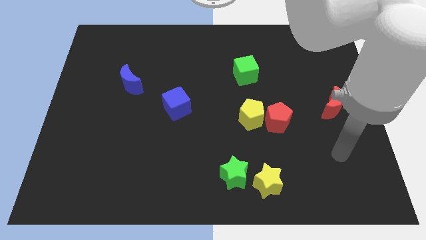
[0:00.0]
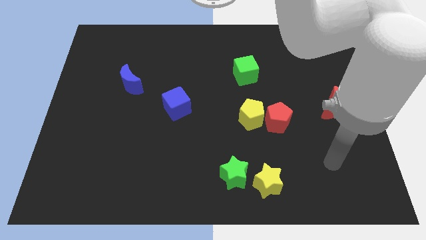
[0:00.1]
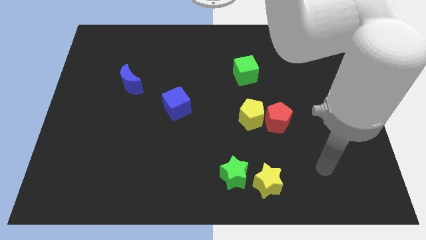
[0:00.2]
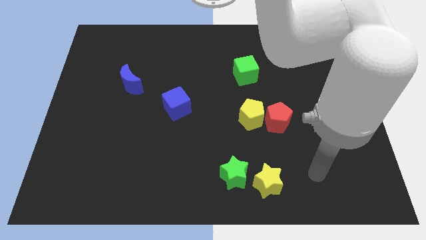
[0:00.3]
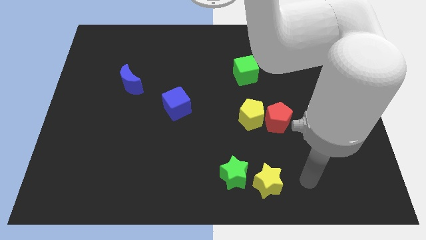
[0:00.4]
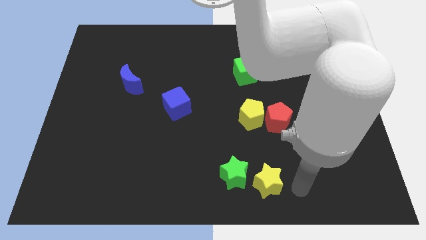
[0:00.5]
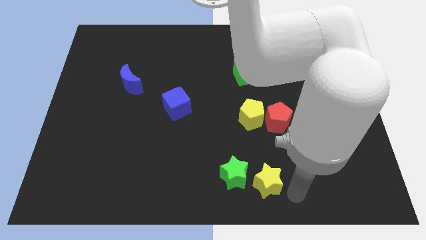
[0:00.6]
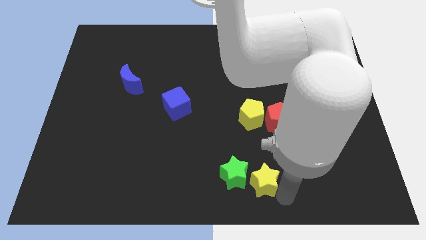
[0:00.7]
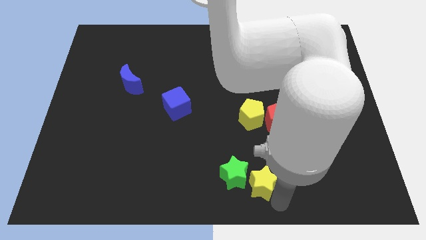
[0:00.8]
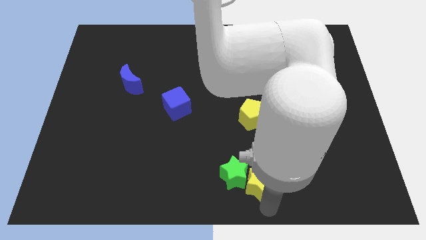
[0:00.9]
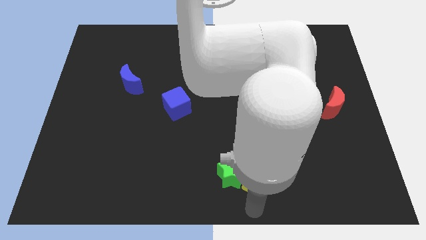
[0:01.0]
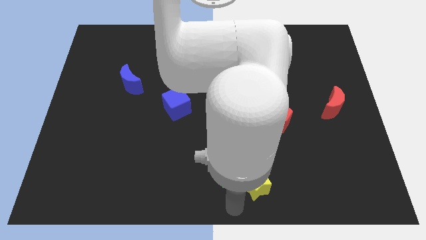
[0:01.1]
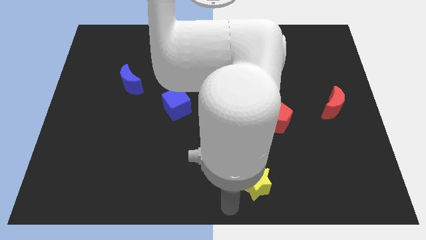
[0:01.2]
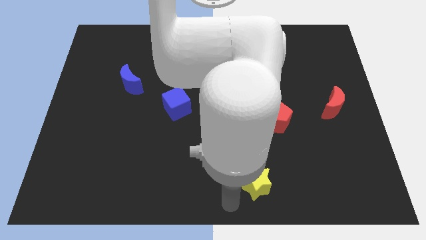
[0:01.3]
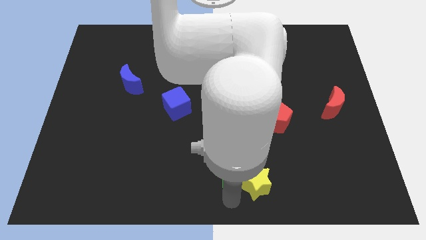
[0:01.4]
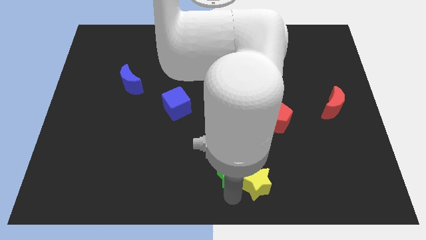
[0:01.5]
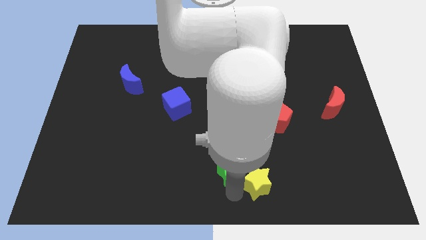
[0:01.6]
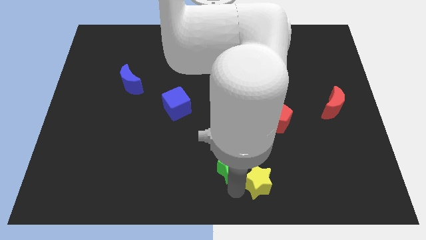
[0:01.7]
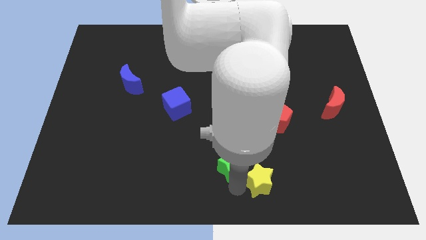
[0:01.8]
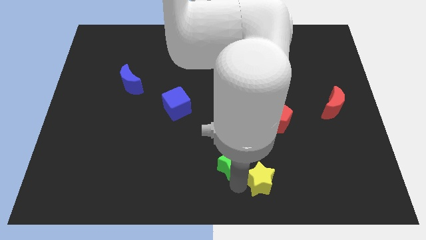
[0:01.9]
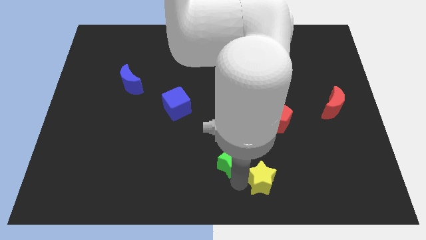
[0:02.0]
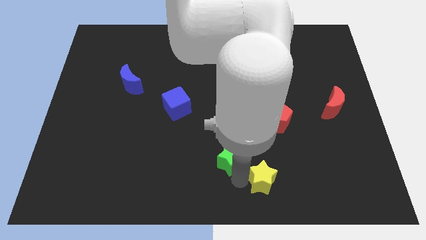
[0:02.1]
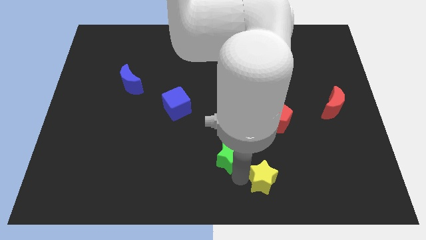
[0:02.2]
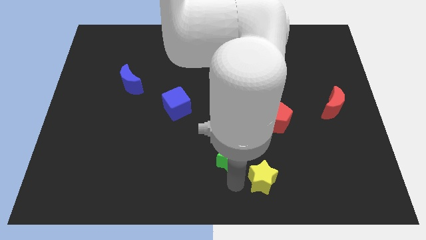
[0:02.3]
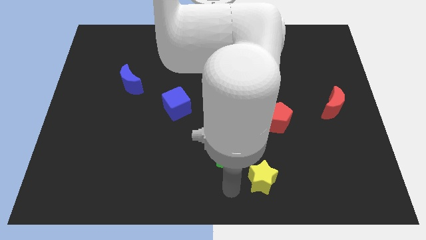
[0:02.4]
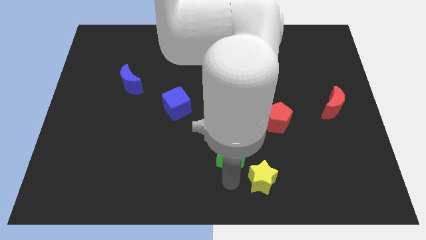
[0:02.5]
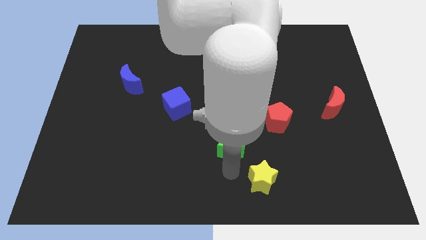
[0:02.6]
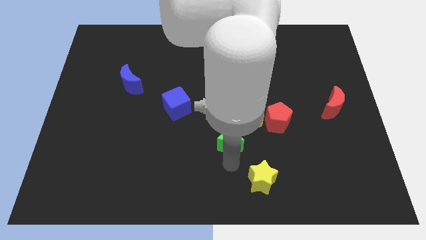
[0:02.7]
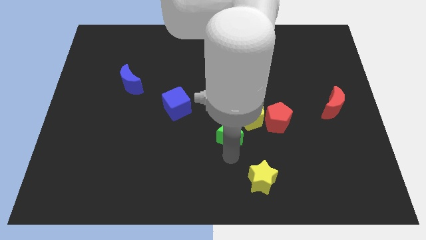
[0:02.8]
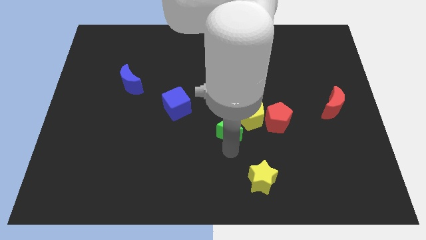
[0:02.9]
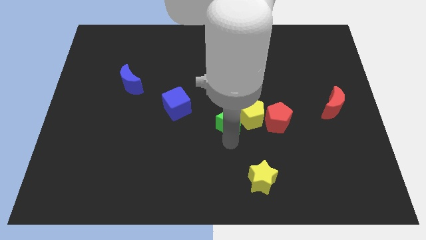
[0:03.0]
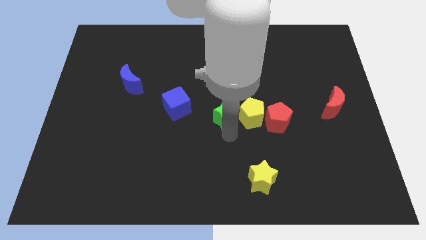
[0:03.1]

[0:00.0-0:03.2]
move the green star to the top left of the yellow pentagon

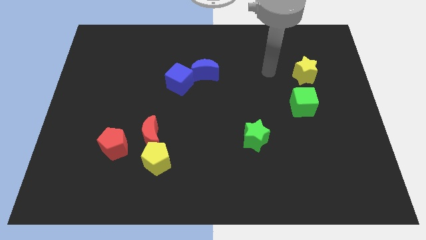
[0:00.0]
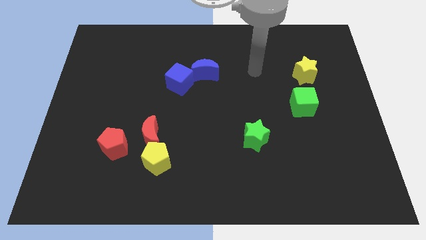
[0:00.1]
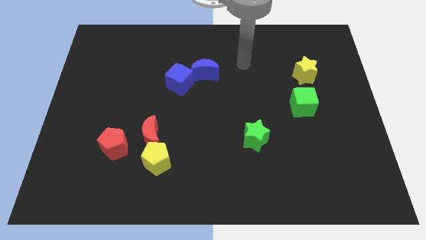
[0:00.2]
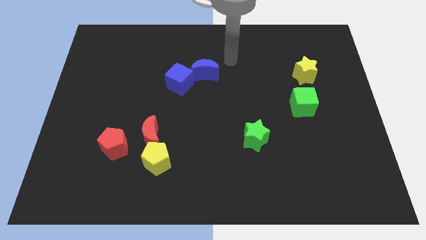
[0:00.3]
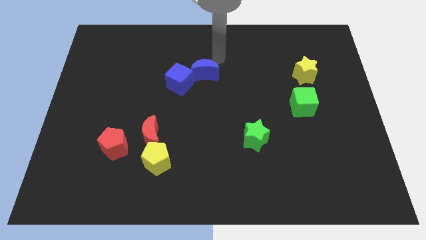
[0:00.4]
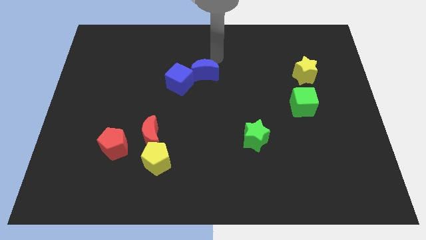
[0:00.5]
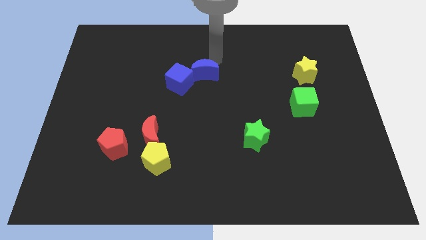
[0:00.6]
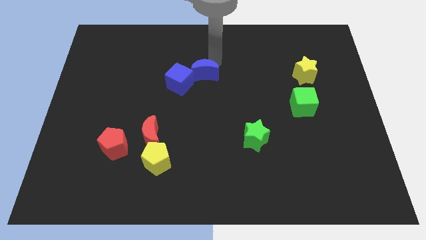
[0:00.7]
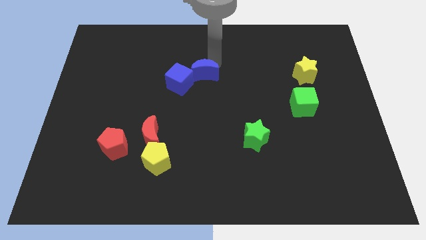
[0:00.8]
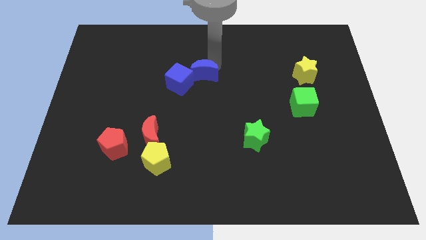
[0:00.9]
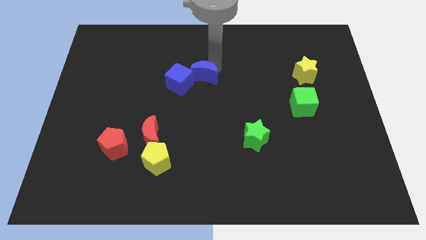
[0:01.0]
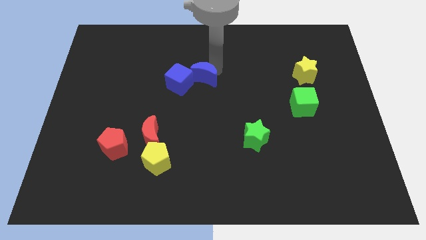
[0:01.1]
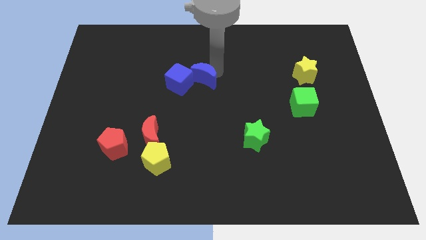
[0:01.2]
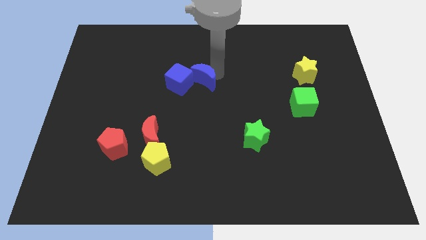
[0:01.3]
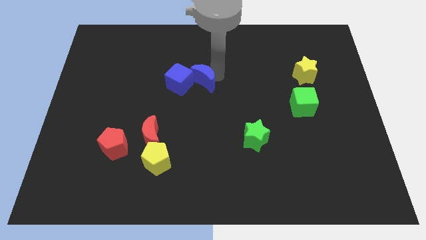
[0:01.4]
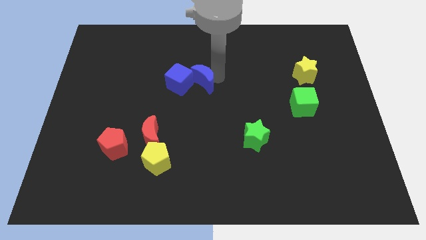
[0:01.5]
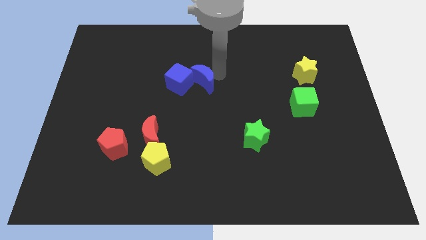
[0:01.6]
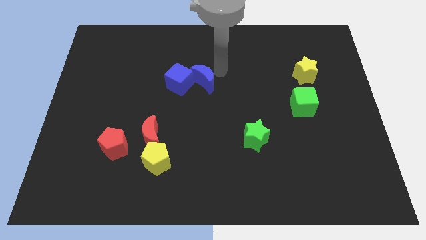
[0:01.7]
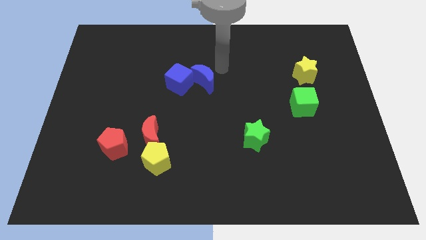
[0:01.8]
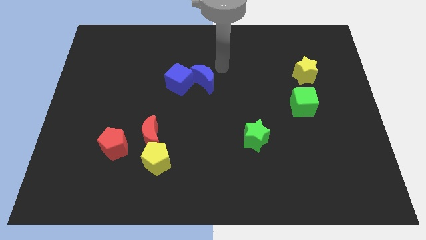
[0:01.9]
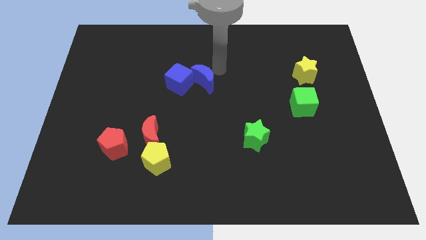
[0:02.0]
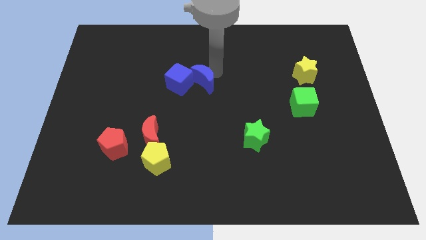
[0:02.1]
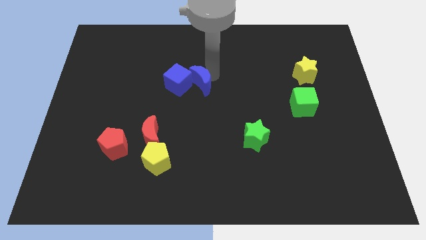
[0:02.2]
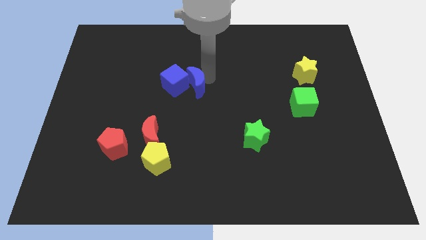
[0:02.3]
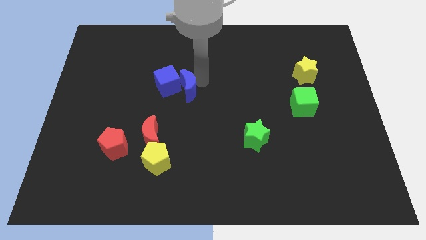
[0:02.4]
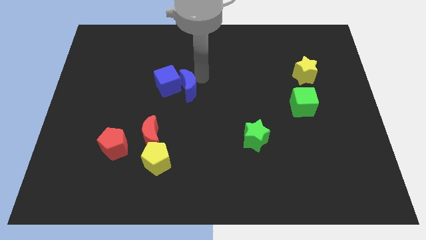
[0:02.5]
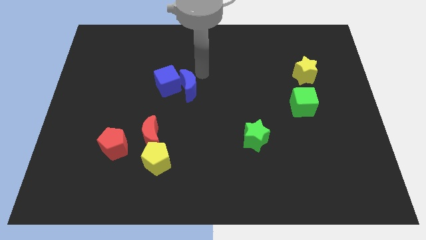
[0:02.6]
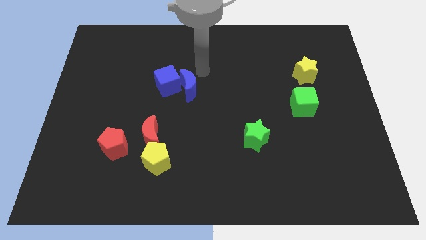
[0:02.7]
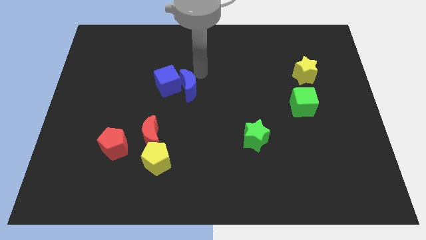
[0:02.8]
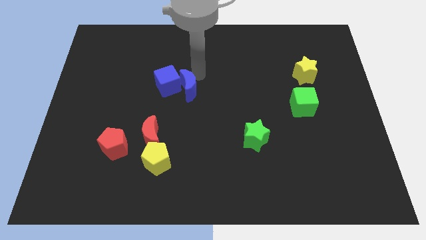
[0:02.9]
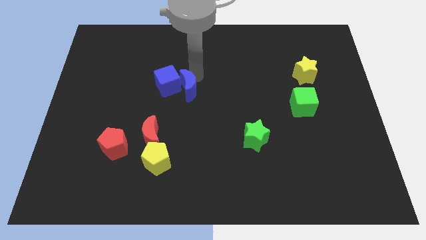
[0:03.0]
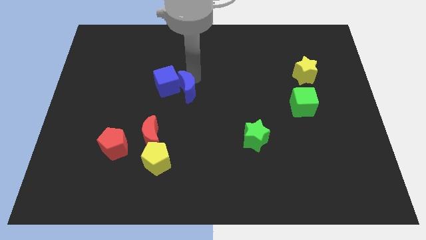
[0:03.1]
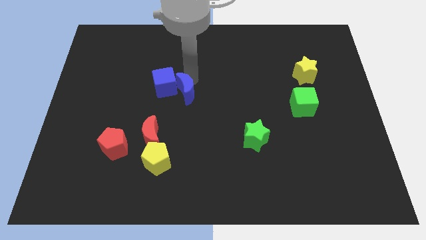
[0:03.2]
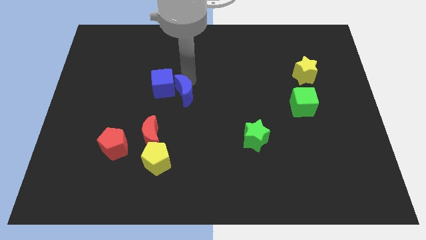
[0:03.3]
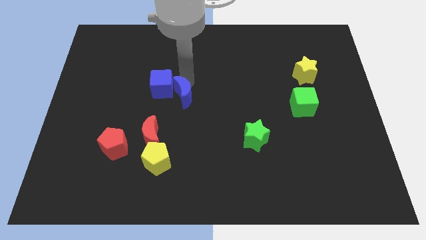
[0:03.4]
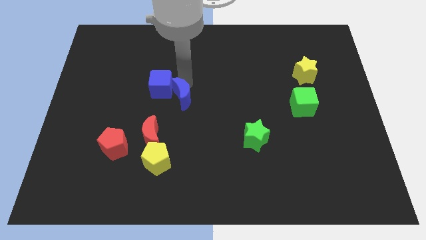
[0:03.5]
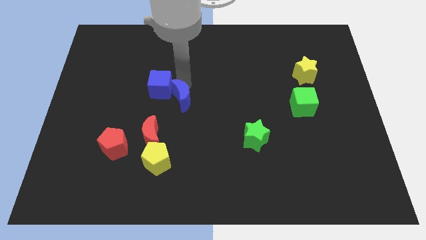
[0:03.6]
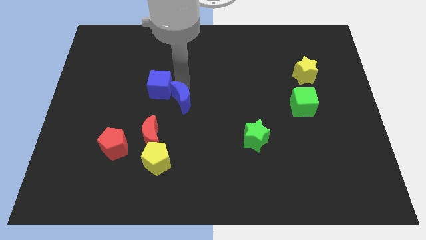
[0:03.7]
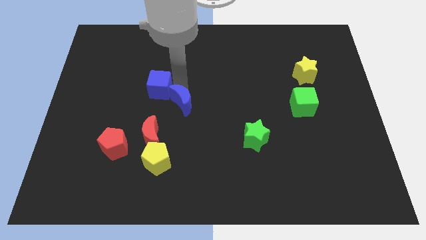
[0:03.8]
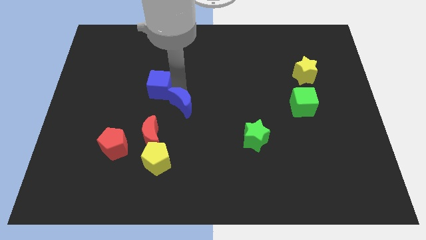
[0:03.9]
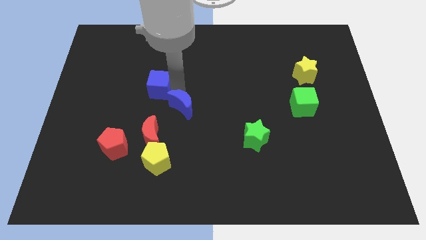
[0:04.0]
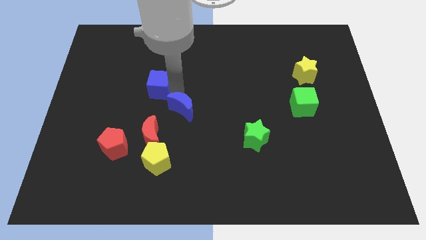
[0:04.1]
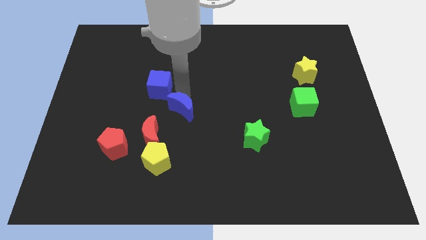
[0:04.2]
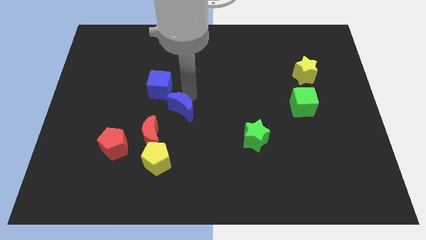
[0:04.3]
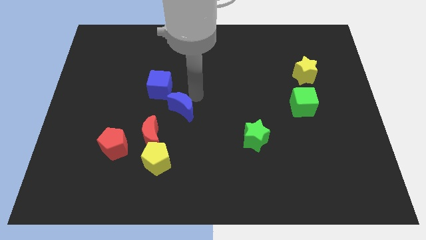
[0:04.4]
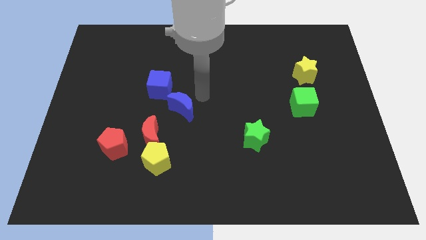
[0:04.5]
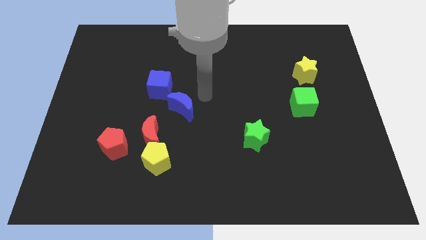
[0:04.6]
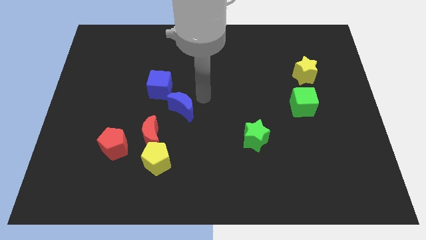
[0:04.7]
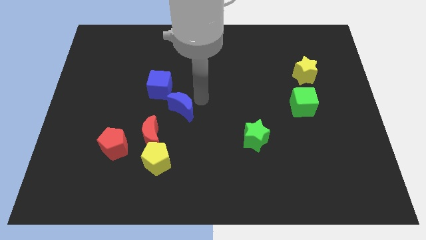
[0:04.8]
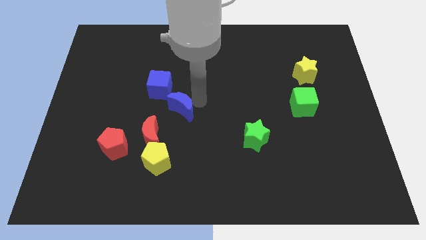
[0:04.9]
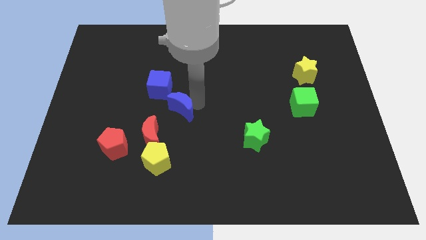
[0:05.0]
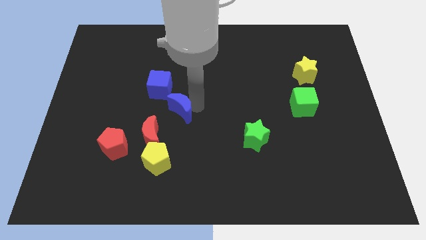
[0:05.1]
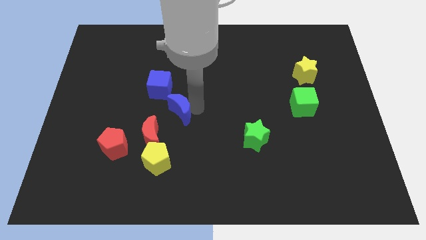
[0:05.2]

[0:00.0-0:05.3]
push the blue moon to the top side of the yellow pentagon
